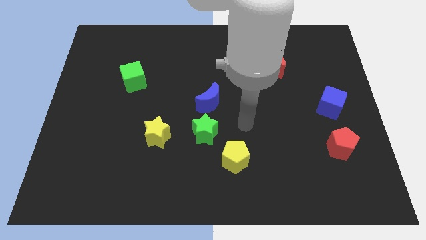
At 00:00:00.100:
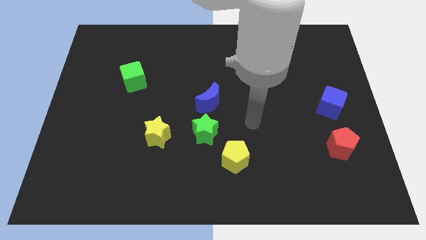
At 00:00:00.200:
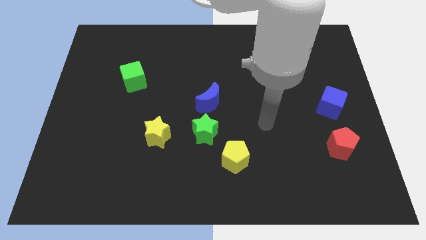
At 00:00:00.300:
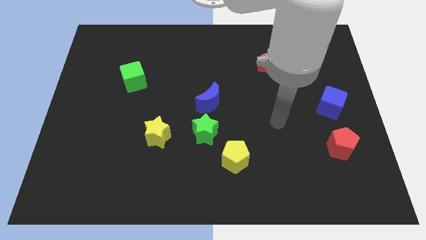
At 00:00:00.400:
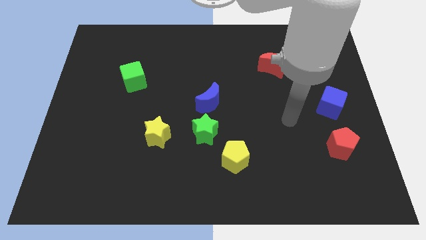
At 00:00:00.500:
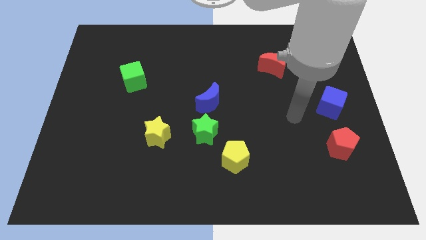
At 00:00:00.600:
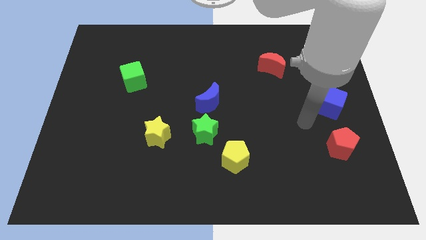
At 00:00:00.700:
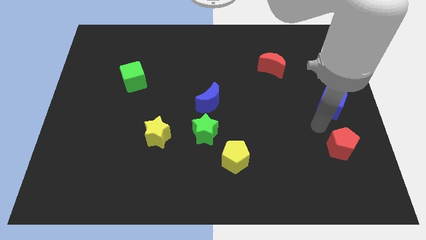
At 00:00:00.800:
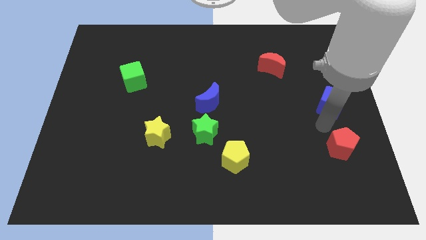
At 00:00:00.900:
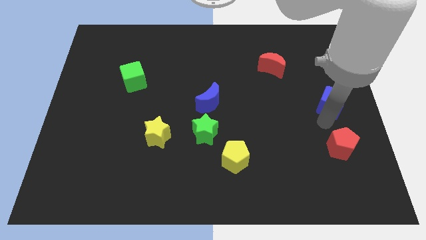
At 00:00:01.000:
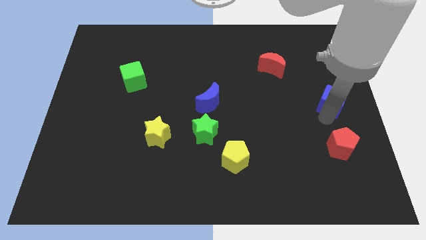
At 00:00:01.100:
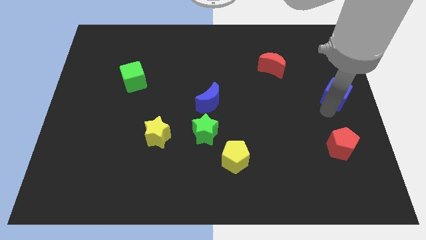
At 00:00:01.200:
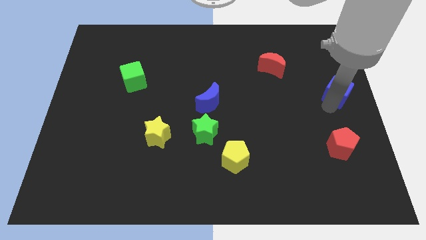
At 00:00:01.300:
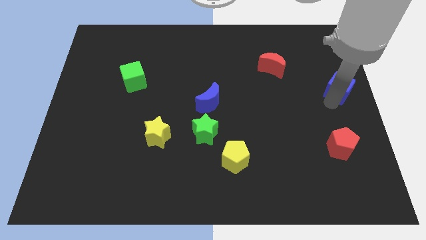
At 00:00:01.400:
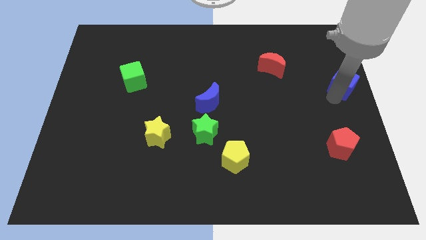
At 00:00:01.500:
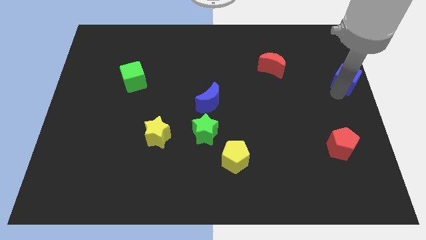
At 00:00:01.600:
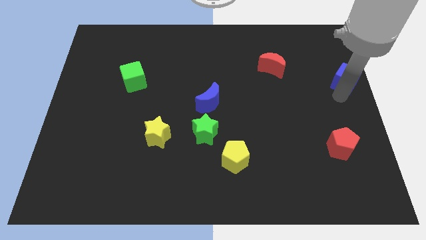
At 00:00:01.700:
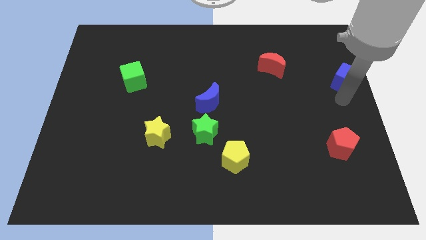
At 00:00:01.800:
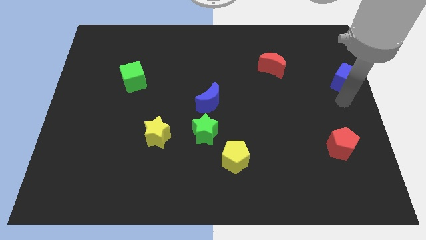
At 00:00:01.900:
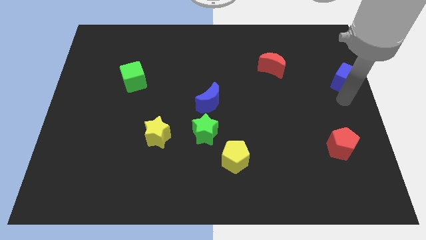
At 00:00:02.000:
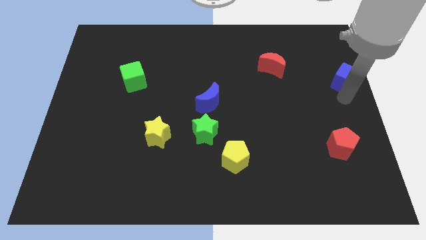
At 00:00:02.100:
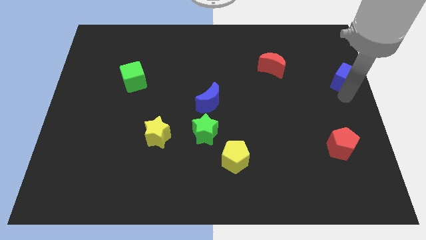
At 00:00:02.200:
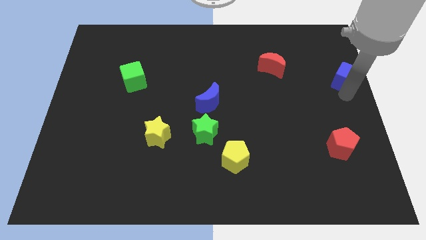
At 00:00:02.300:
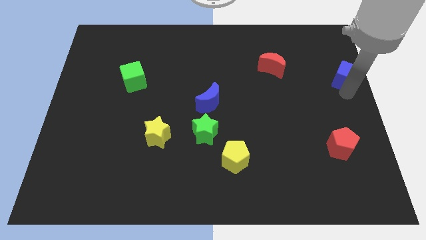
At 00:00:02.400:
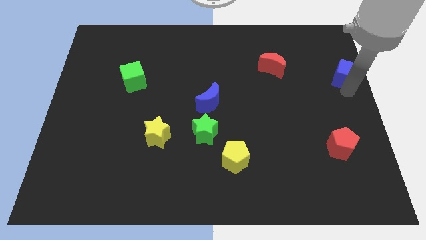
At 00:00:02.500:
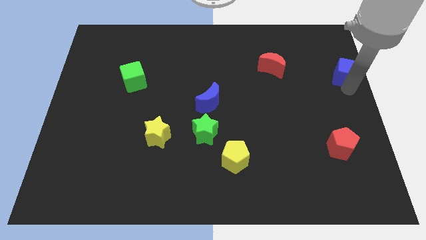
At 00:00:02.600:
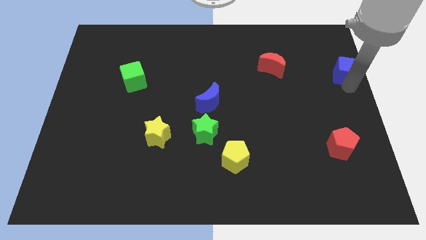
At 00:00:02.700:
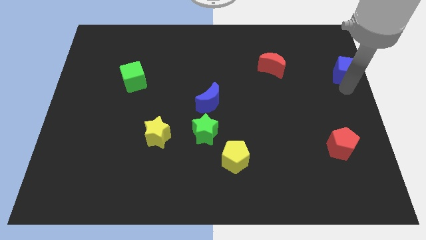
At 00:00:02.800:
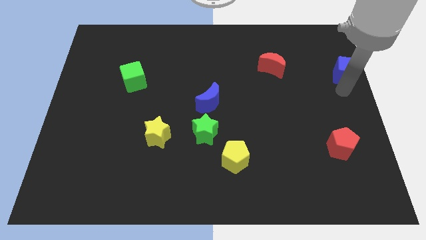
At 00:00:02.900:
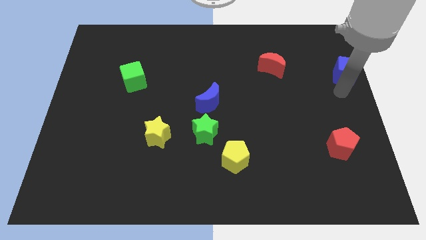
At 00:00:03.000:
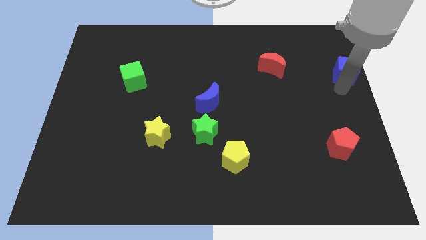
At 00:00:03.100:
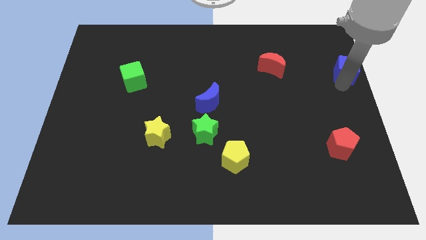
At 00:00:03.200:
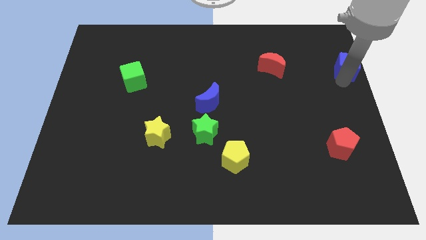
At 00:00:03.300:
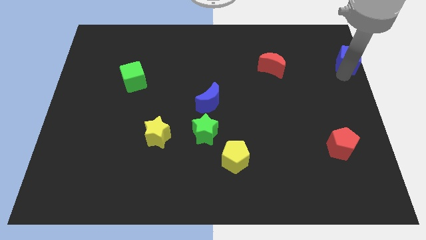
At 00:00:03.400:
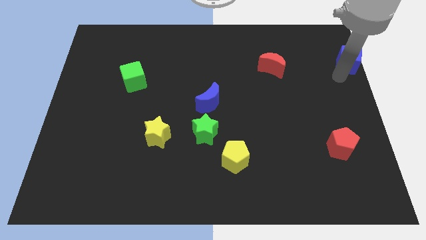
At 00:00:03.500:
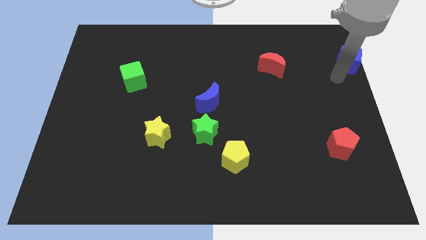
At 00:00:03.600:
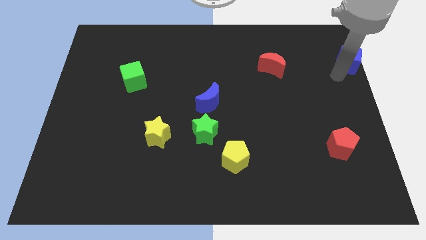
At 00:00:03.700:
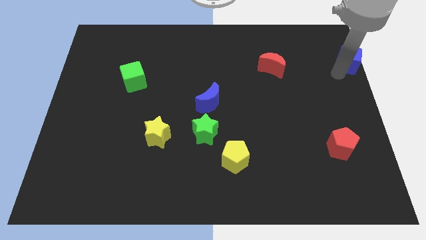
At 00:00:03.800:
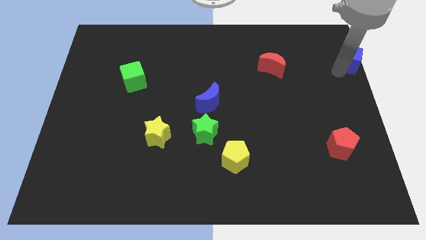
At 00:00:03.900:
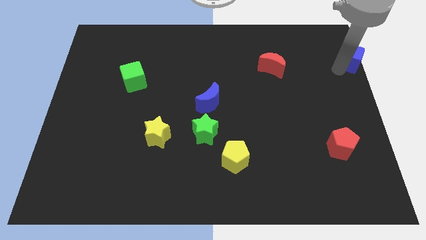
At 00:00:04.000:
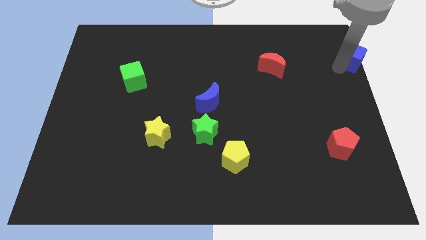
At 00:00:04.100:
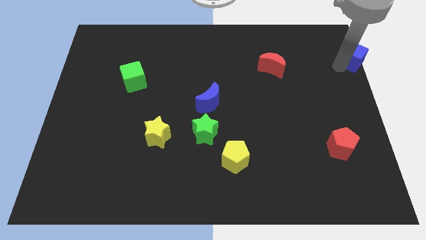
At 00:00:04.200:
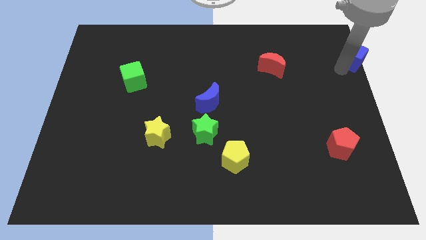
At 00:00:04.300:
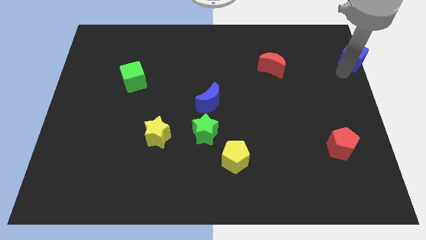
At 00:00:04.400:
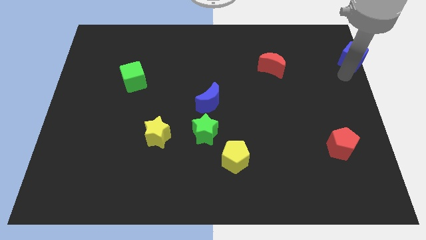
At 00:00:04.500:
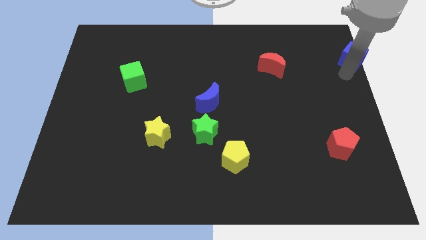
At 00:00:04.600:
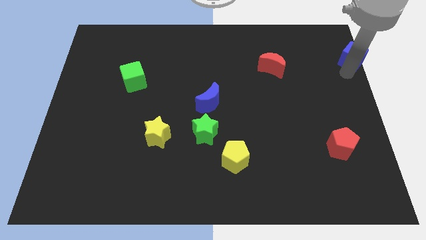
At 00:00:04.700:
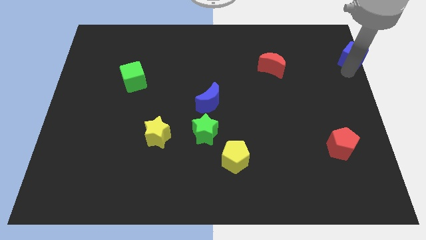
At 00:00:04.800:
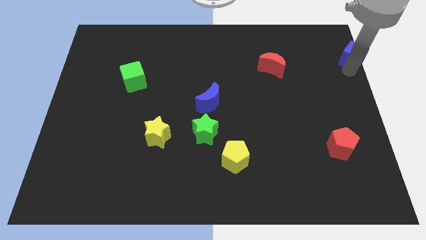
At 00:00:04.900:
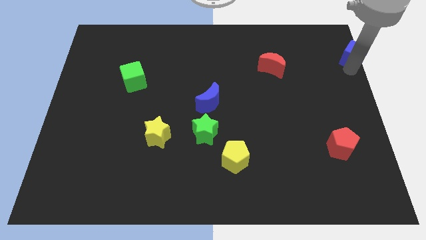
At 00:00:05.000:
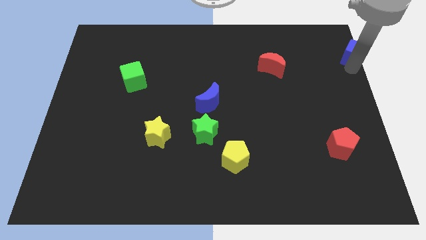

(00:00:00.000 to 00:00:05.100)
slide the blue cube to the top right of the board
